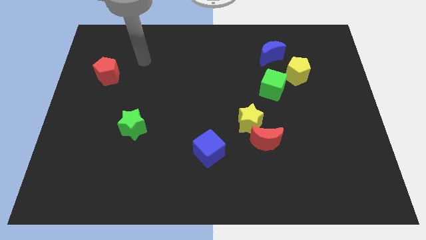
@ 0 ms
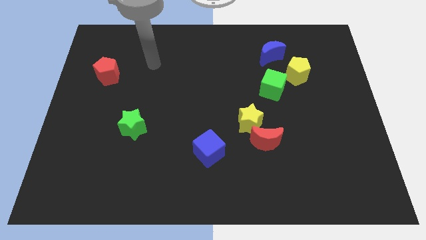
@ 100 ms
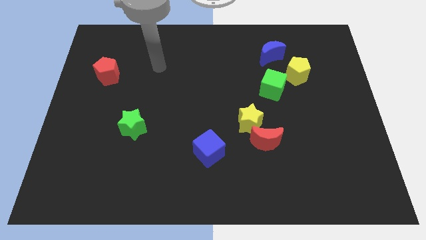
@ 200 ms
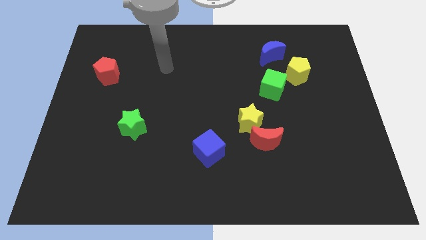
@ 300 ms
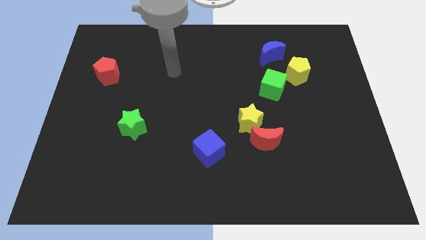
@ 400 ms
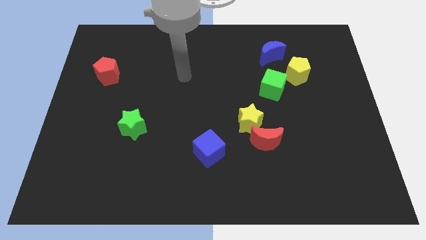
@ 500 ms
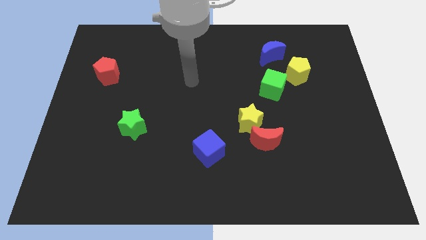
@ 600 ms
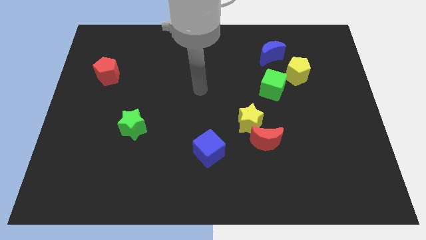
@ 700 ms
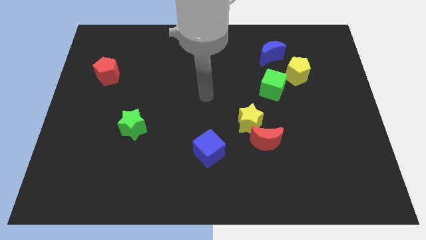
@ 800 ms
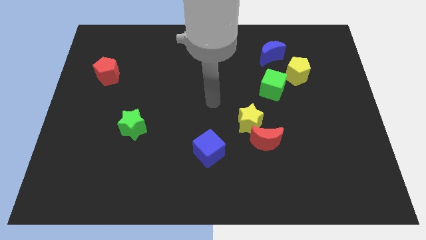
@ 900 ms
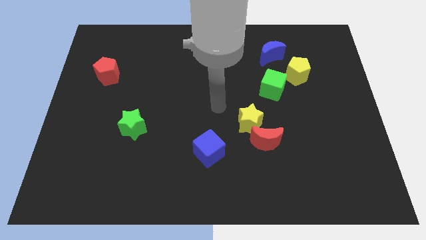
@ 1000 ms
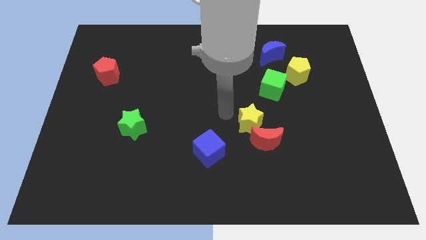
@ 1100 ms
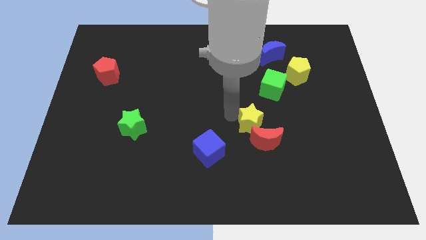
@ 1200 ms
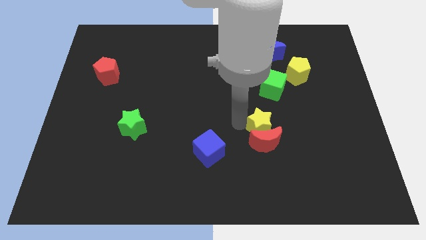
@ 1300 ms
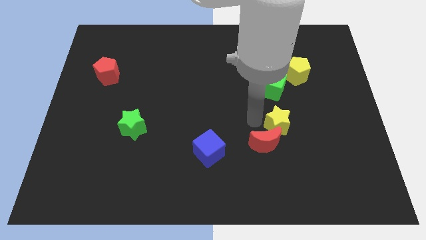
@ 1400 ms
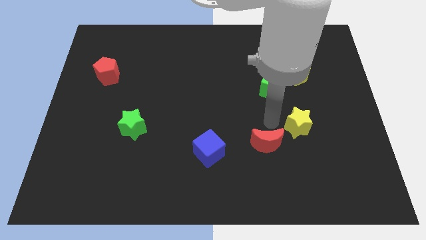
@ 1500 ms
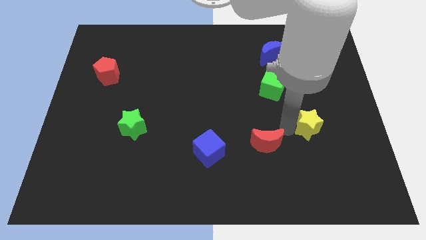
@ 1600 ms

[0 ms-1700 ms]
separate the red moon from the yellow star

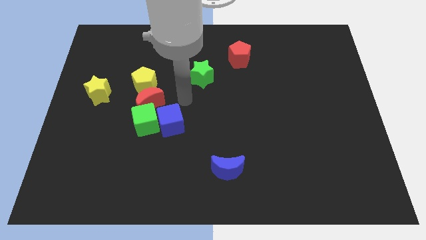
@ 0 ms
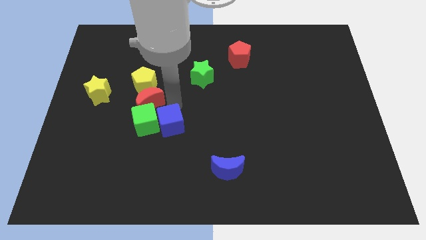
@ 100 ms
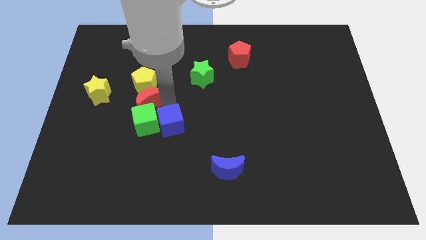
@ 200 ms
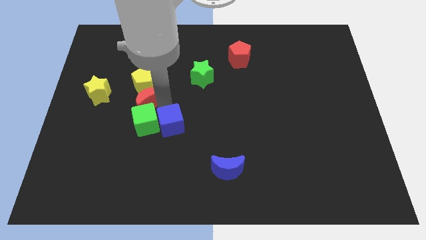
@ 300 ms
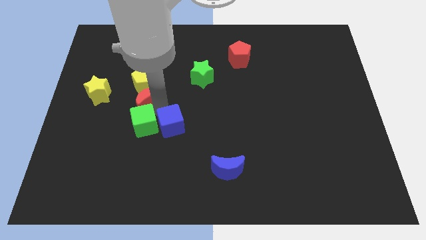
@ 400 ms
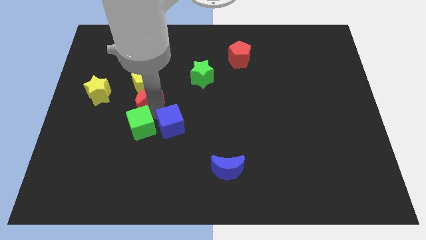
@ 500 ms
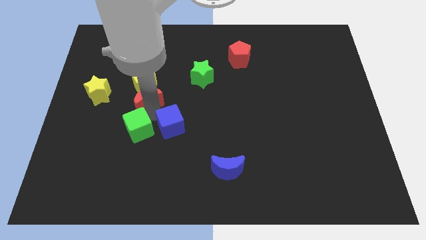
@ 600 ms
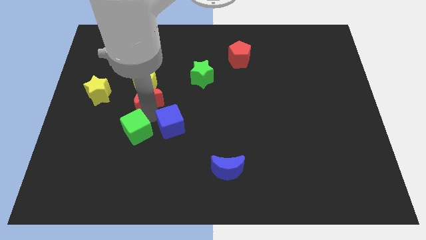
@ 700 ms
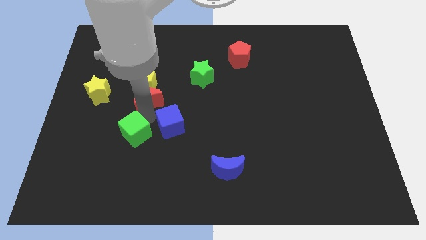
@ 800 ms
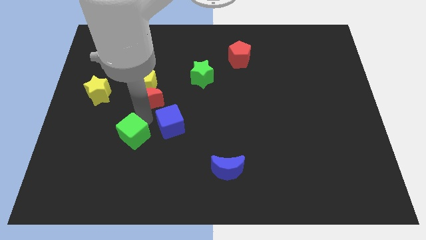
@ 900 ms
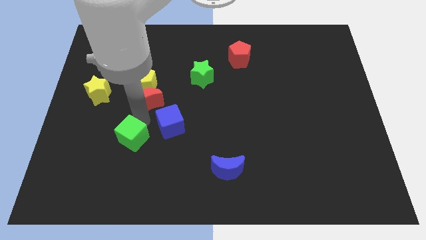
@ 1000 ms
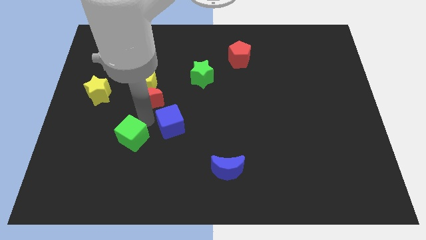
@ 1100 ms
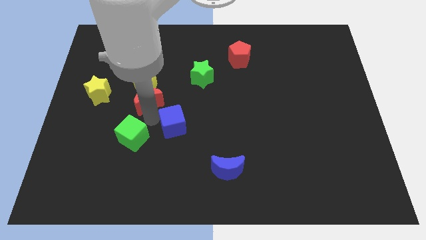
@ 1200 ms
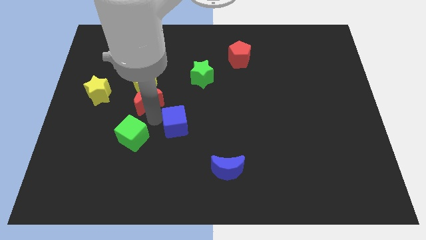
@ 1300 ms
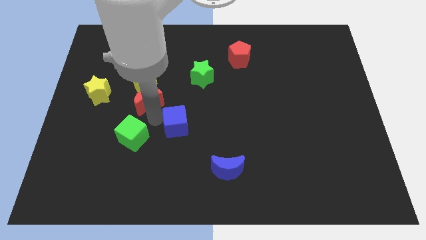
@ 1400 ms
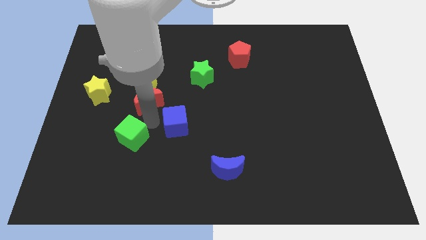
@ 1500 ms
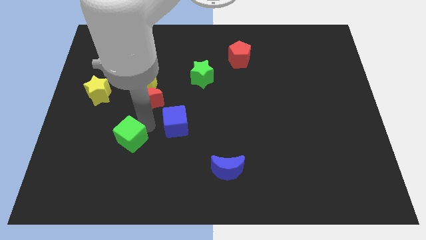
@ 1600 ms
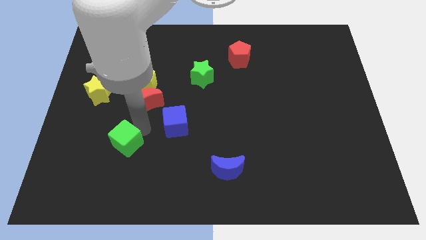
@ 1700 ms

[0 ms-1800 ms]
move the green cube away from the blue cube and red moon

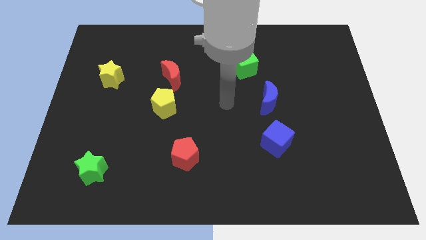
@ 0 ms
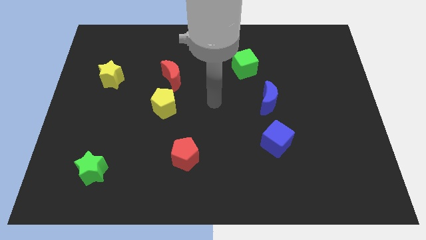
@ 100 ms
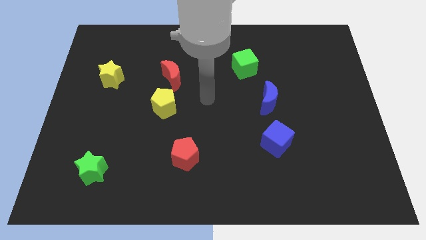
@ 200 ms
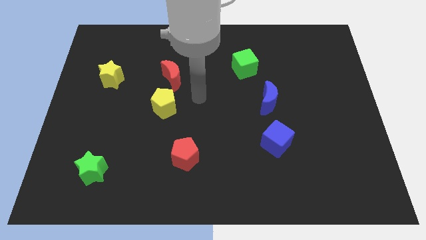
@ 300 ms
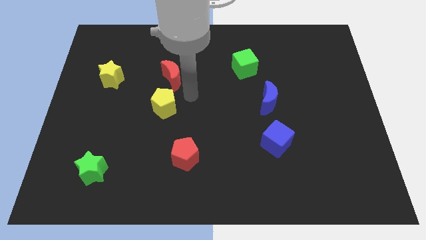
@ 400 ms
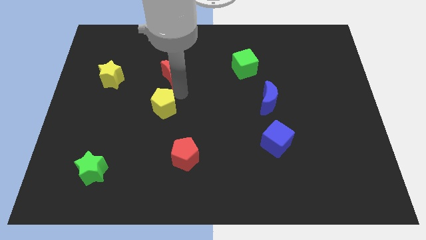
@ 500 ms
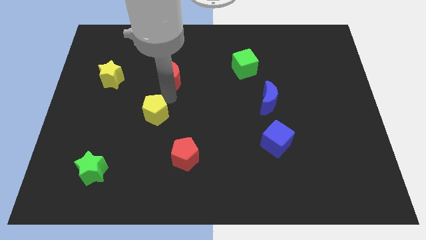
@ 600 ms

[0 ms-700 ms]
pull the red moon apart from the yellow pentagon

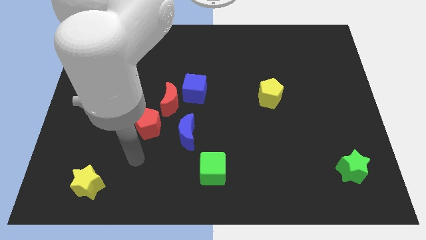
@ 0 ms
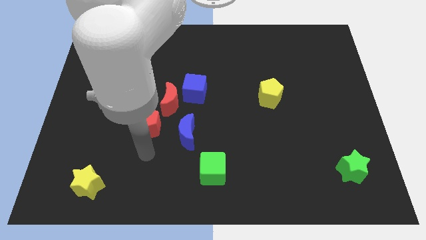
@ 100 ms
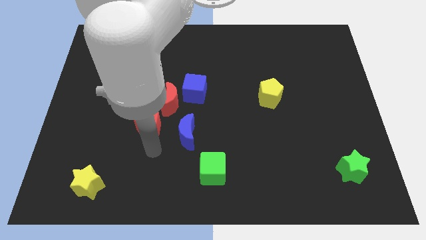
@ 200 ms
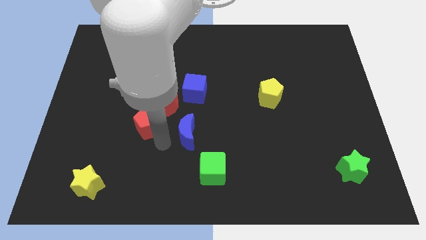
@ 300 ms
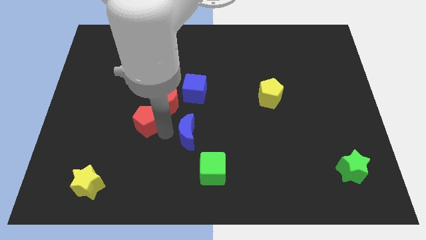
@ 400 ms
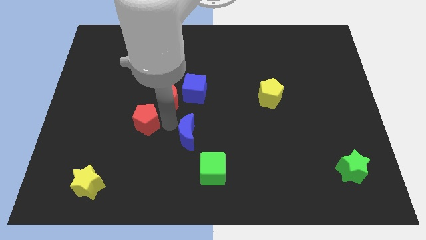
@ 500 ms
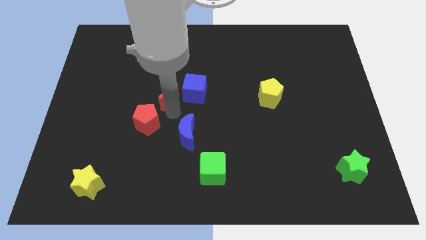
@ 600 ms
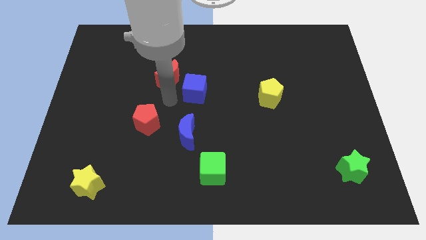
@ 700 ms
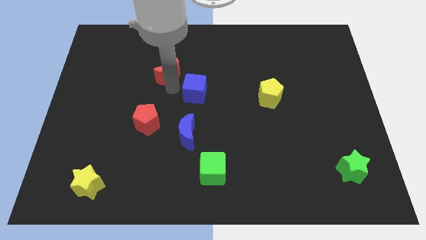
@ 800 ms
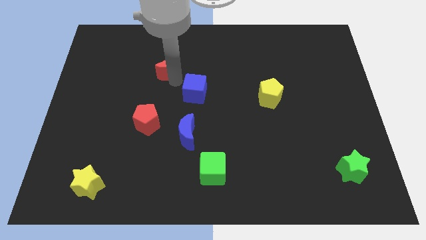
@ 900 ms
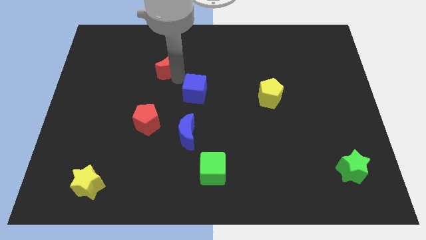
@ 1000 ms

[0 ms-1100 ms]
move the blue cube away from the red moon

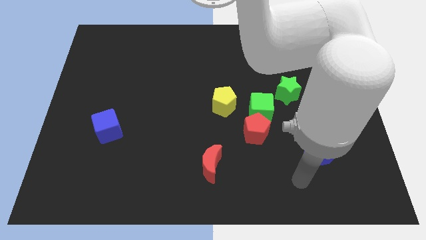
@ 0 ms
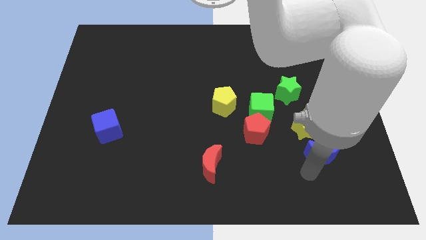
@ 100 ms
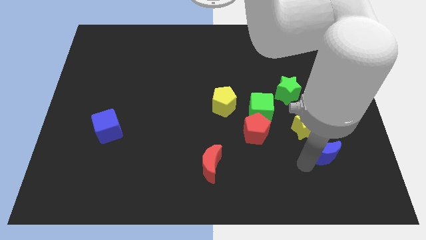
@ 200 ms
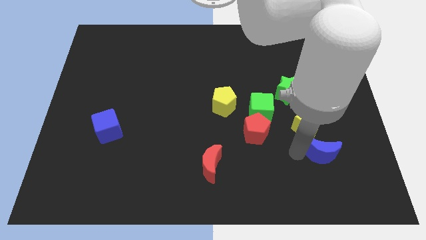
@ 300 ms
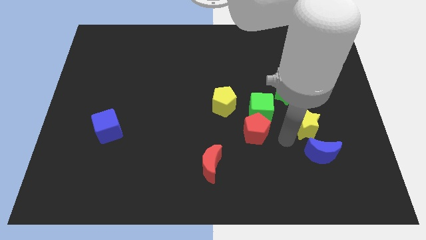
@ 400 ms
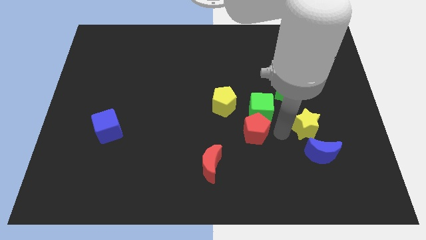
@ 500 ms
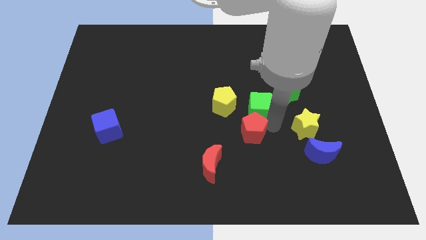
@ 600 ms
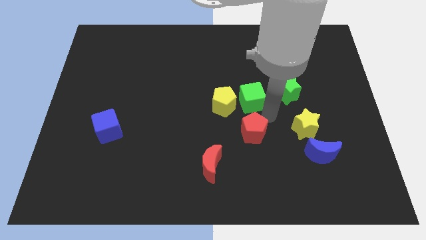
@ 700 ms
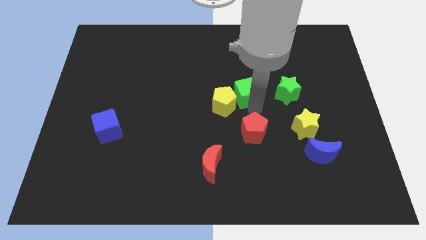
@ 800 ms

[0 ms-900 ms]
separate the red pentagon from the green cube

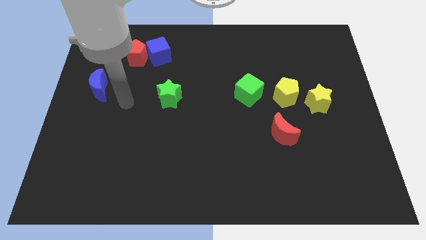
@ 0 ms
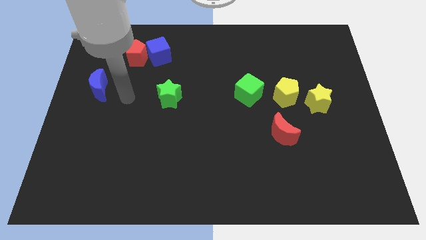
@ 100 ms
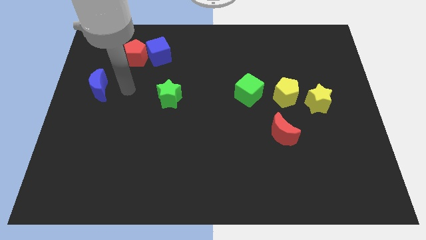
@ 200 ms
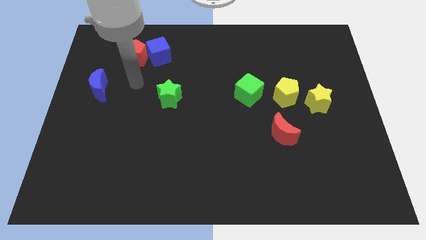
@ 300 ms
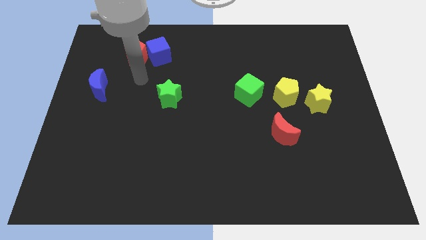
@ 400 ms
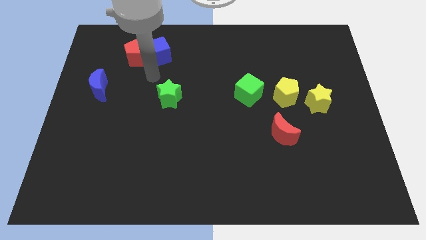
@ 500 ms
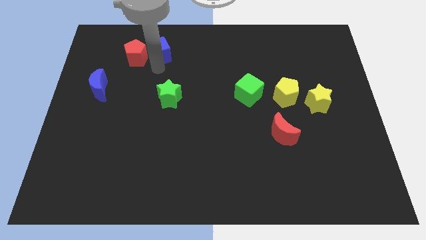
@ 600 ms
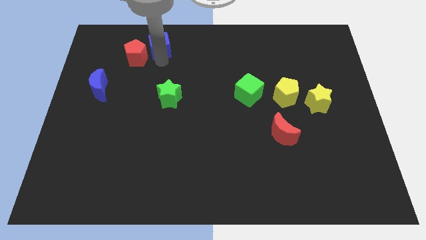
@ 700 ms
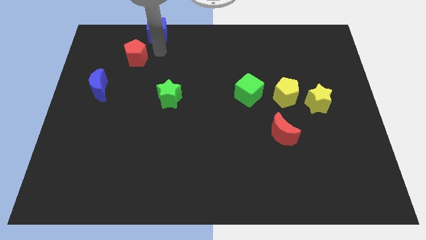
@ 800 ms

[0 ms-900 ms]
move the red pentagon away from the blue cube

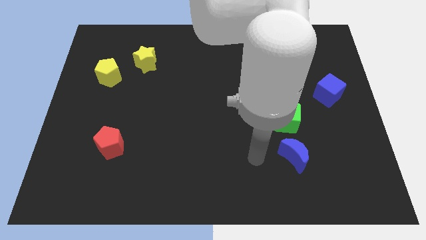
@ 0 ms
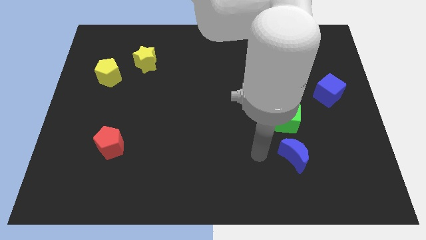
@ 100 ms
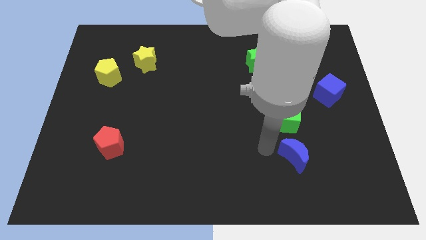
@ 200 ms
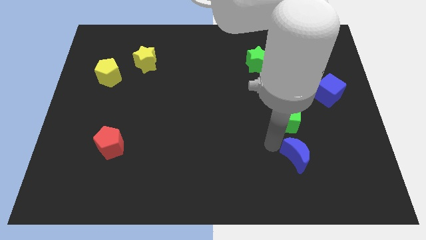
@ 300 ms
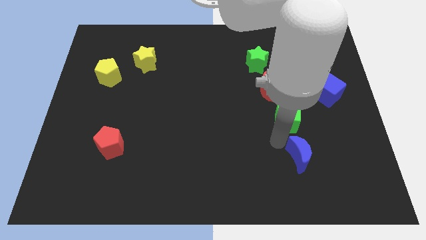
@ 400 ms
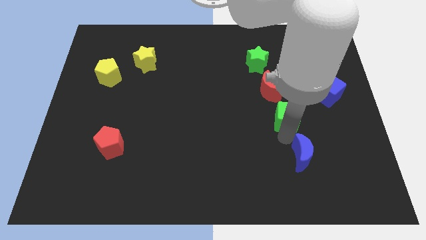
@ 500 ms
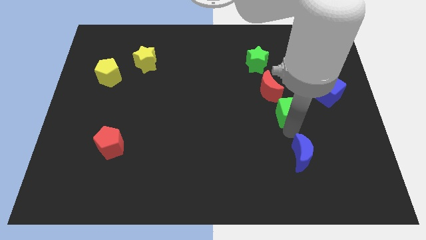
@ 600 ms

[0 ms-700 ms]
pull the blue moon apart from the green cube

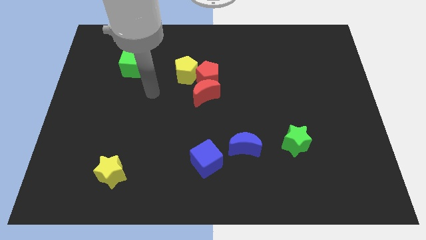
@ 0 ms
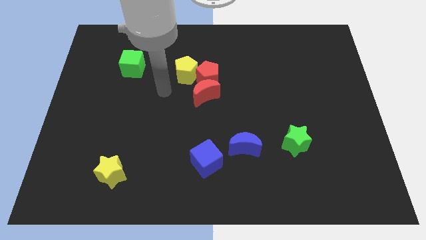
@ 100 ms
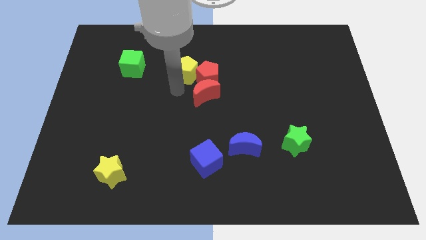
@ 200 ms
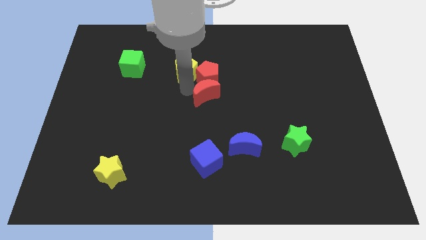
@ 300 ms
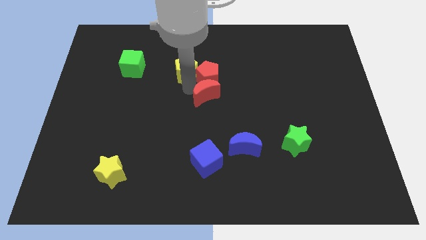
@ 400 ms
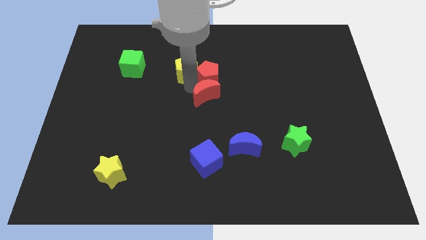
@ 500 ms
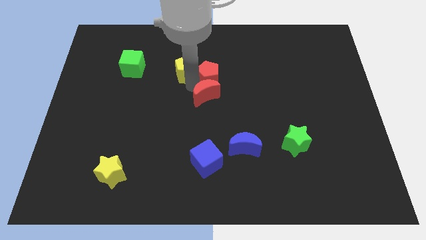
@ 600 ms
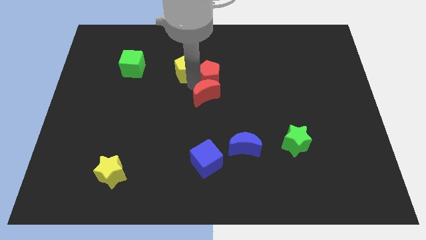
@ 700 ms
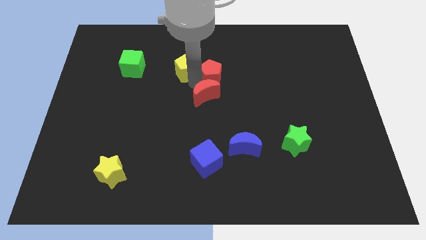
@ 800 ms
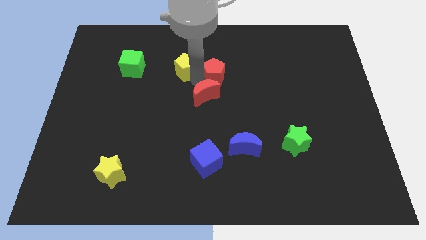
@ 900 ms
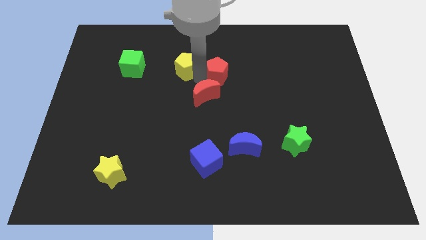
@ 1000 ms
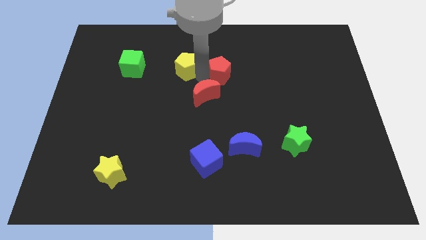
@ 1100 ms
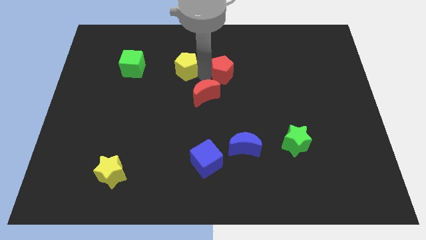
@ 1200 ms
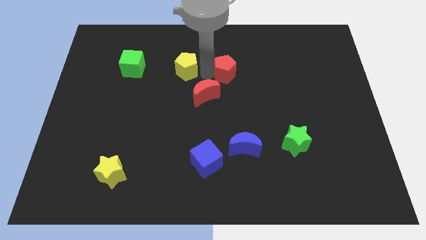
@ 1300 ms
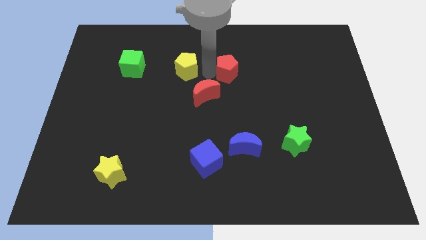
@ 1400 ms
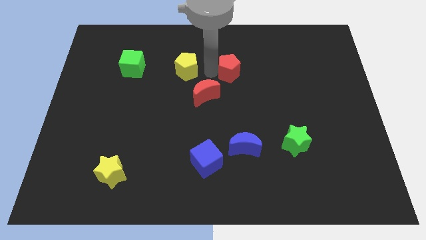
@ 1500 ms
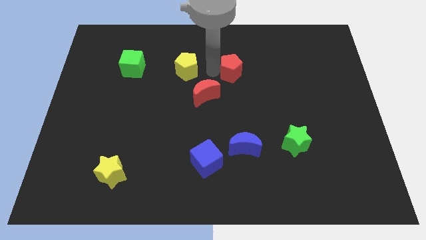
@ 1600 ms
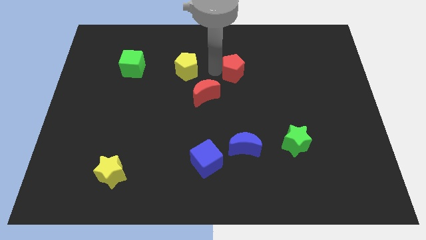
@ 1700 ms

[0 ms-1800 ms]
separate the red pentagon from the red moon and yellow pentagon
